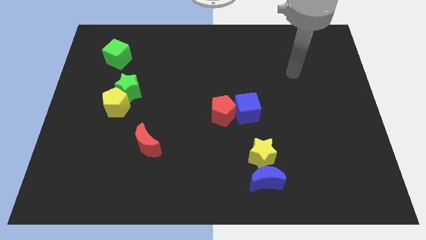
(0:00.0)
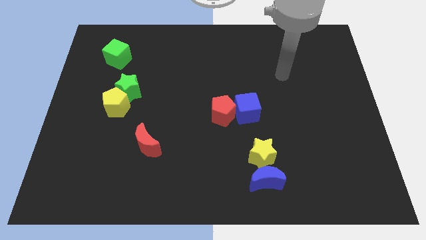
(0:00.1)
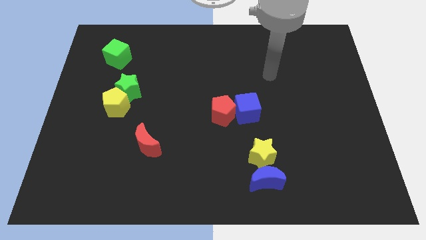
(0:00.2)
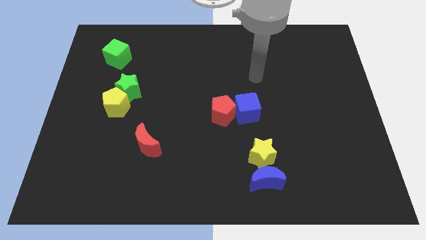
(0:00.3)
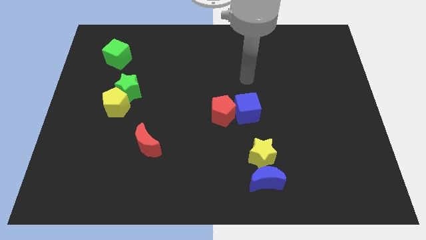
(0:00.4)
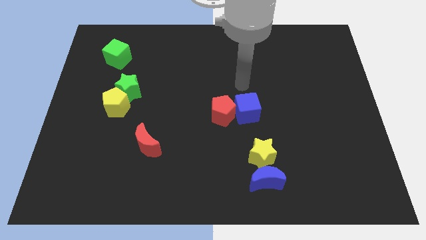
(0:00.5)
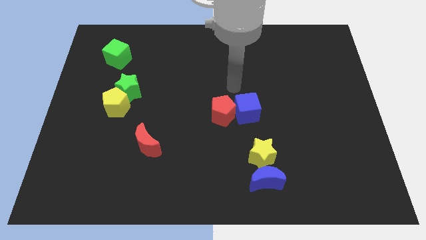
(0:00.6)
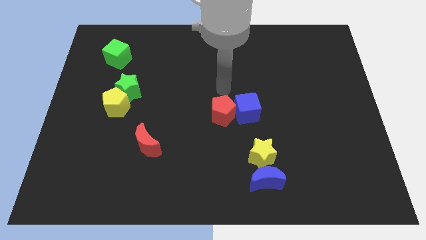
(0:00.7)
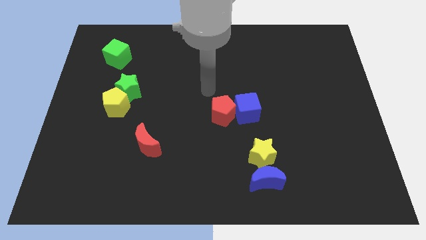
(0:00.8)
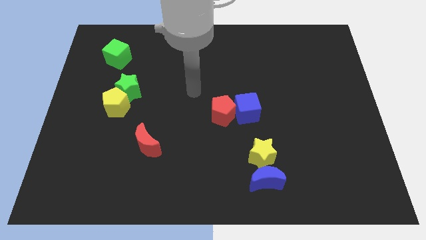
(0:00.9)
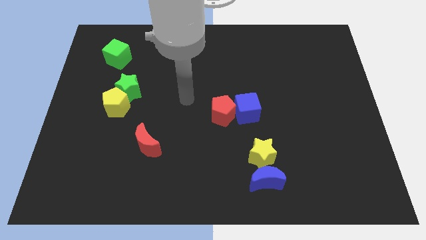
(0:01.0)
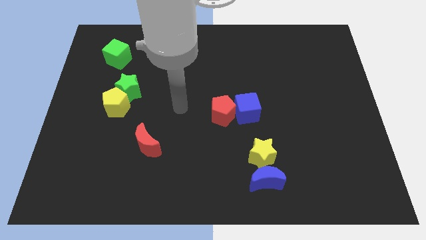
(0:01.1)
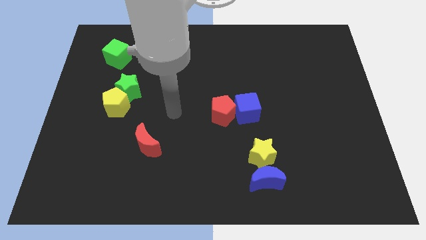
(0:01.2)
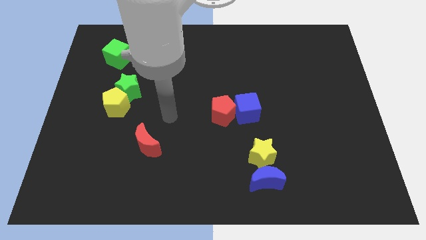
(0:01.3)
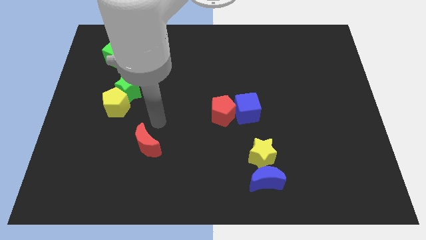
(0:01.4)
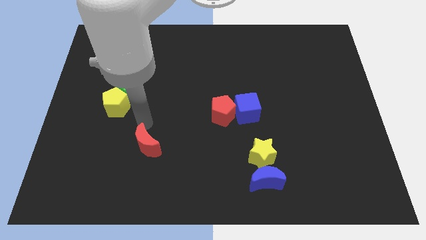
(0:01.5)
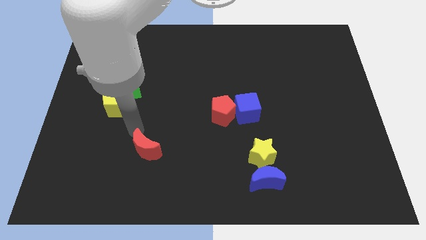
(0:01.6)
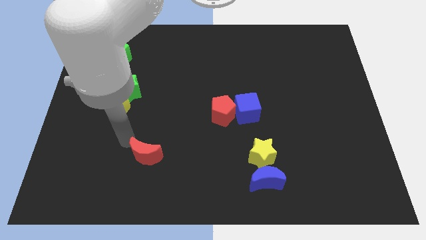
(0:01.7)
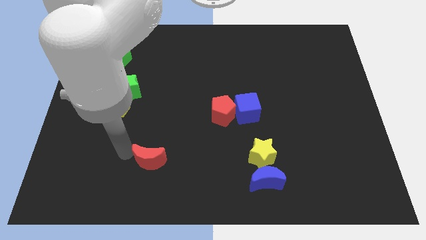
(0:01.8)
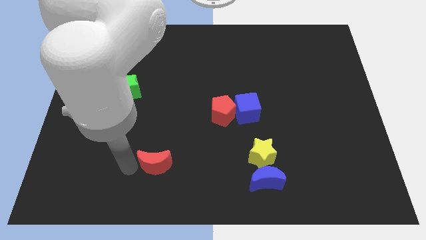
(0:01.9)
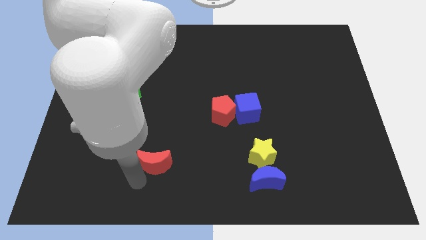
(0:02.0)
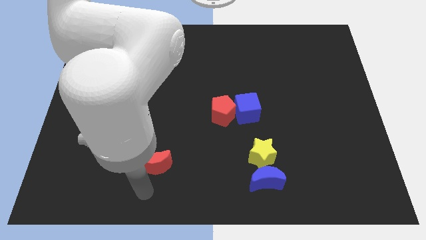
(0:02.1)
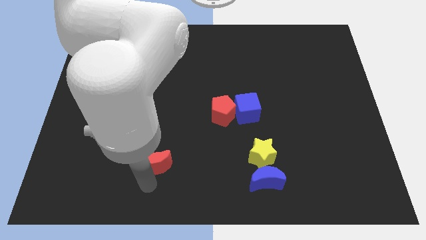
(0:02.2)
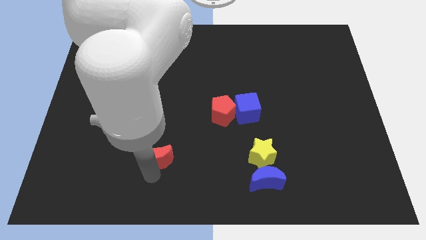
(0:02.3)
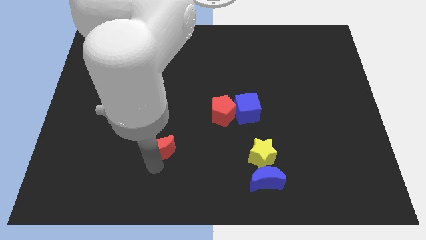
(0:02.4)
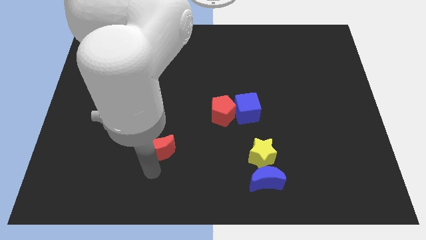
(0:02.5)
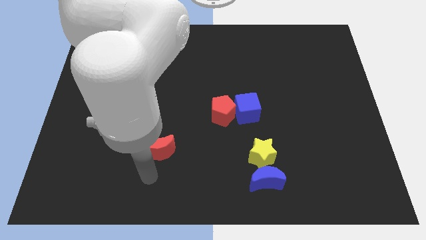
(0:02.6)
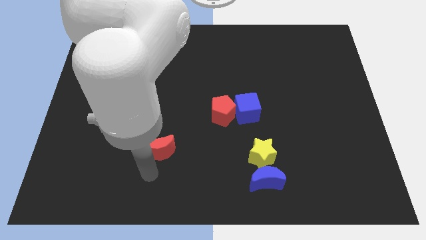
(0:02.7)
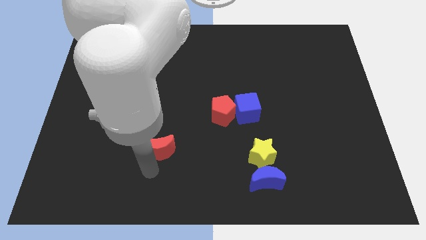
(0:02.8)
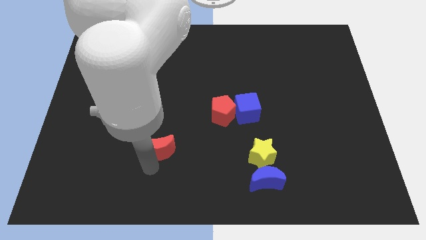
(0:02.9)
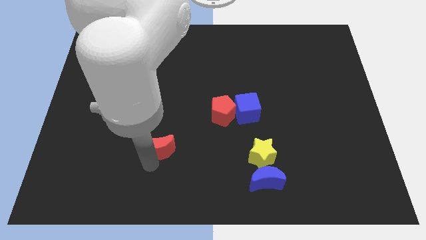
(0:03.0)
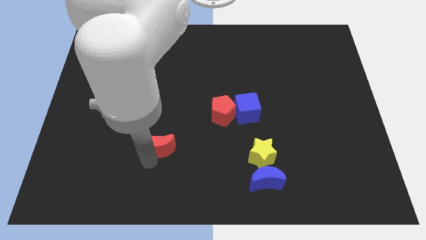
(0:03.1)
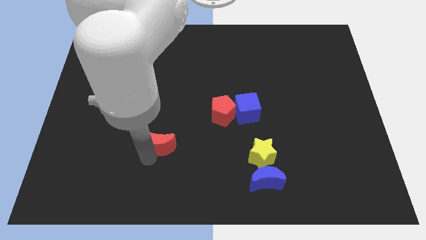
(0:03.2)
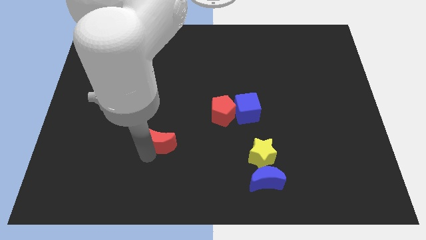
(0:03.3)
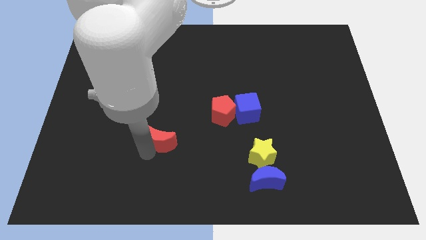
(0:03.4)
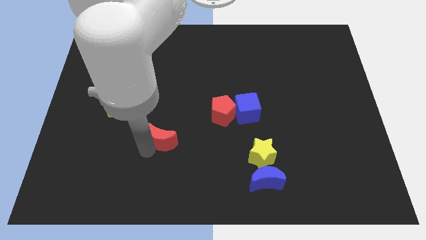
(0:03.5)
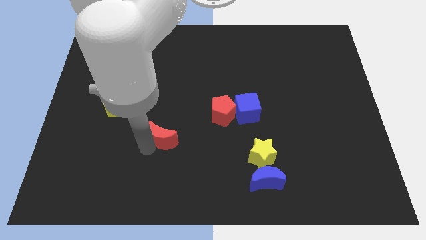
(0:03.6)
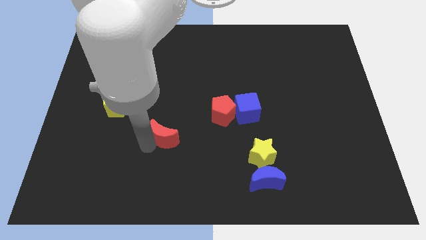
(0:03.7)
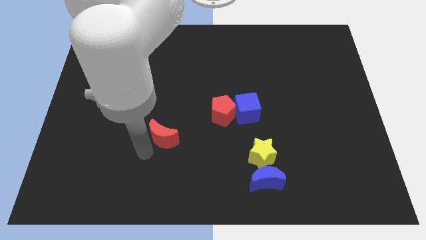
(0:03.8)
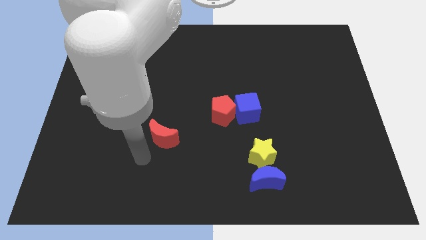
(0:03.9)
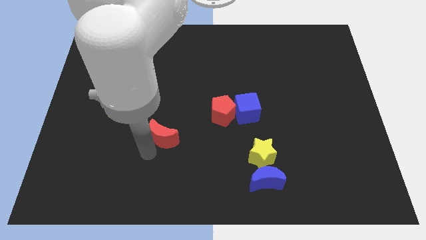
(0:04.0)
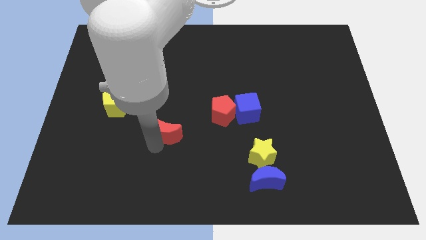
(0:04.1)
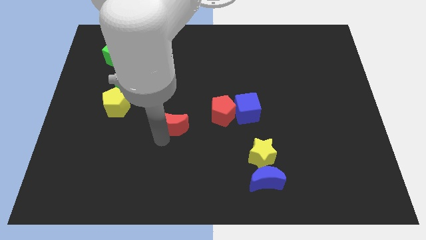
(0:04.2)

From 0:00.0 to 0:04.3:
slightly move the red moon diagonally up and to the right

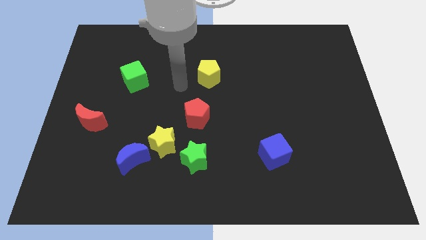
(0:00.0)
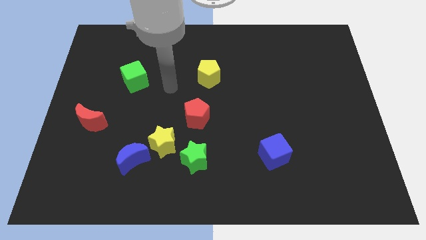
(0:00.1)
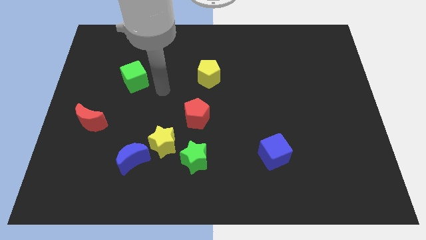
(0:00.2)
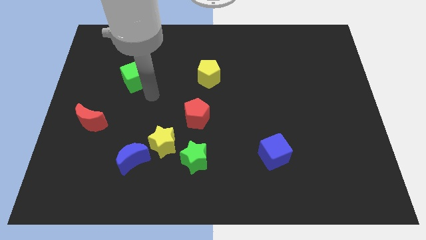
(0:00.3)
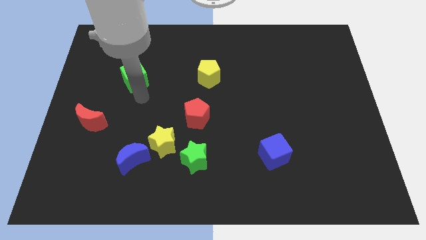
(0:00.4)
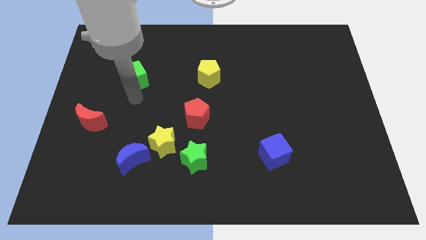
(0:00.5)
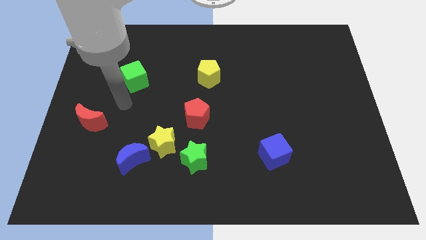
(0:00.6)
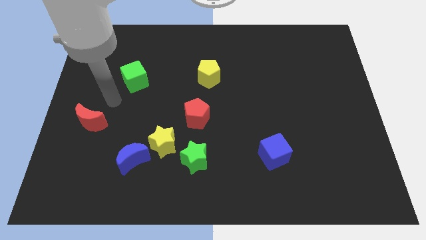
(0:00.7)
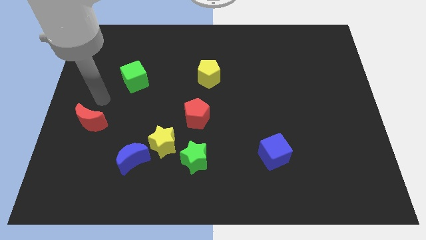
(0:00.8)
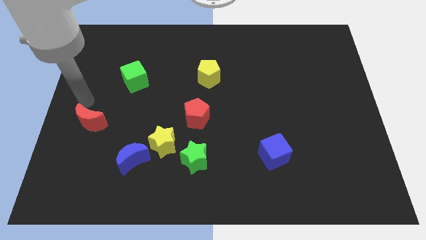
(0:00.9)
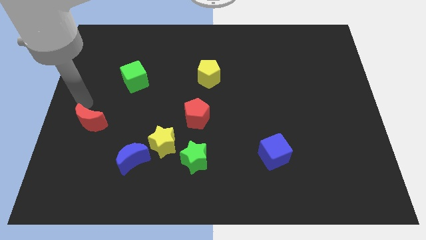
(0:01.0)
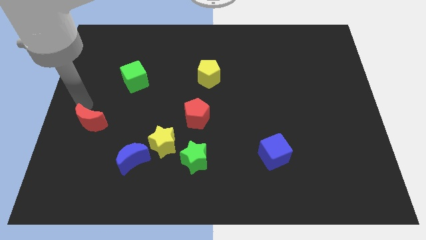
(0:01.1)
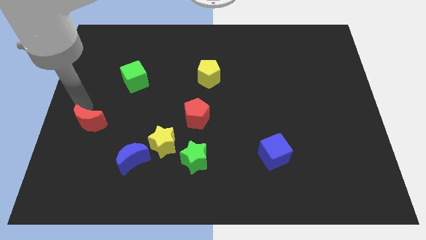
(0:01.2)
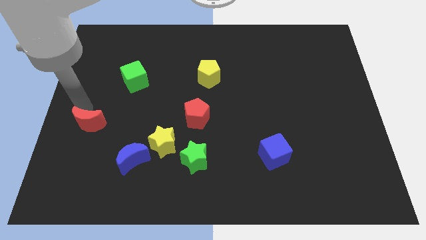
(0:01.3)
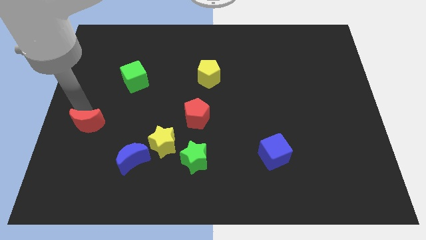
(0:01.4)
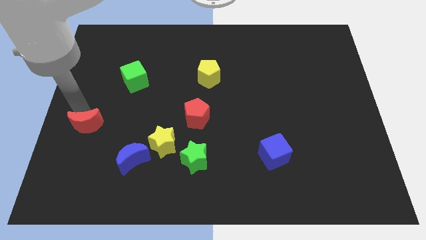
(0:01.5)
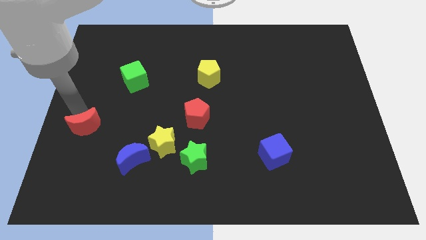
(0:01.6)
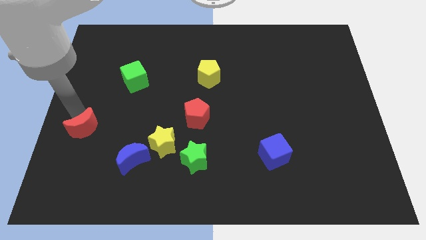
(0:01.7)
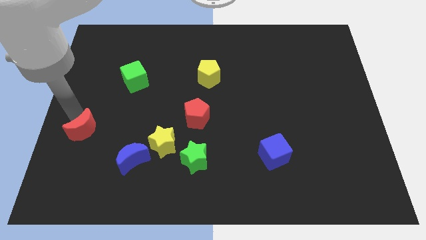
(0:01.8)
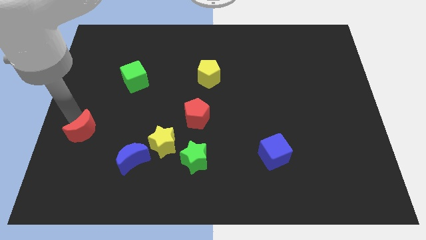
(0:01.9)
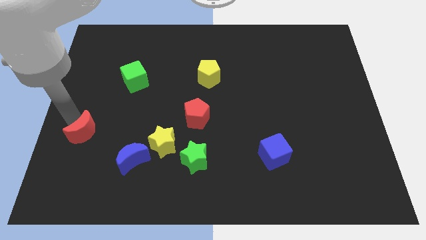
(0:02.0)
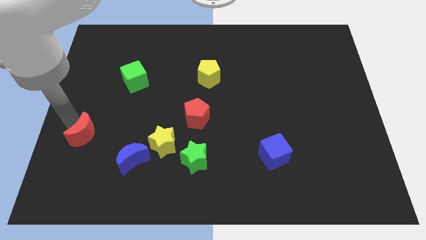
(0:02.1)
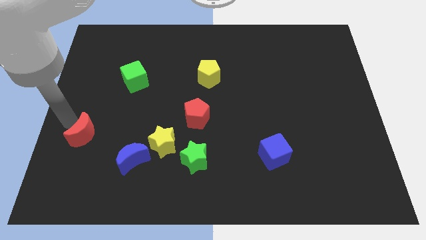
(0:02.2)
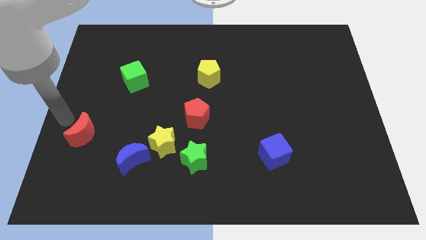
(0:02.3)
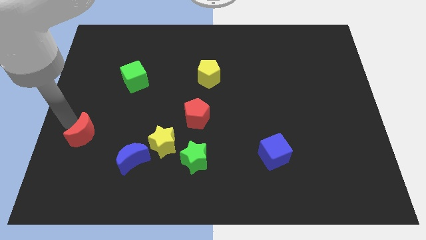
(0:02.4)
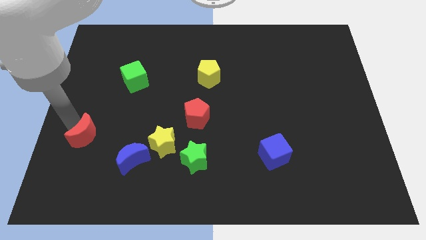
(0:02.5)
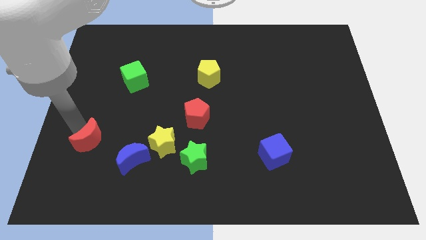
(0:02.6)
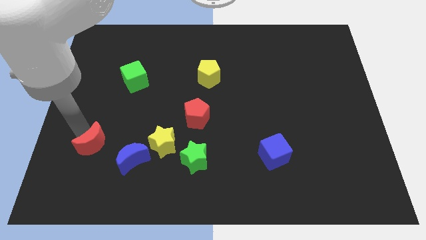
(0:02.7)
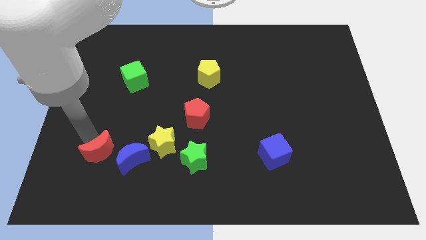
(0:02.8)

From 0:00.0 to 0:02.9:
slightly slide the red moon downwards and right

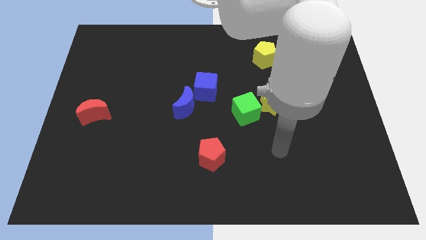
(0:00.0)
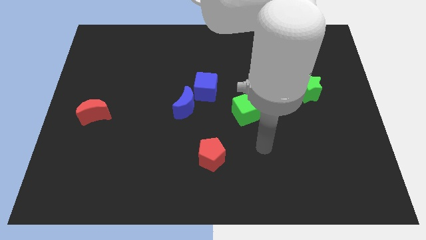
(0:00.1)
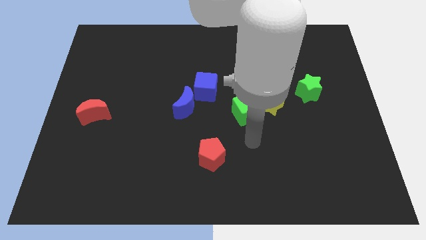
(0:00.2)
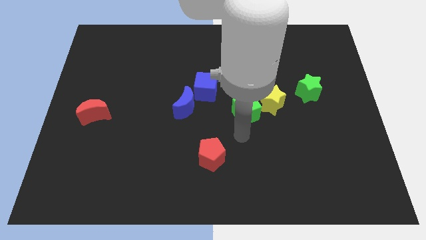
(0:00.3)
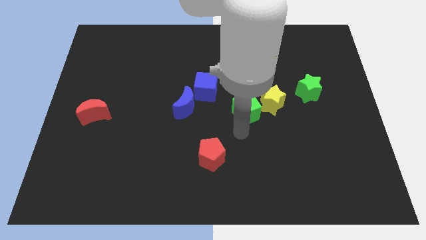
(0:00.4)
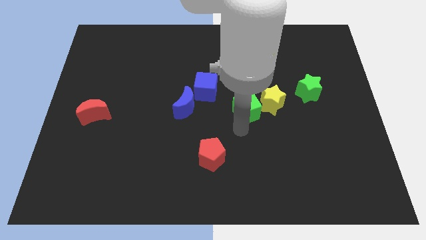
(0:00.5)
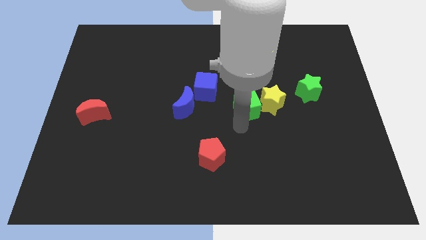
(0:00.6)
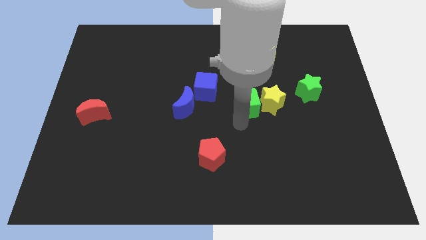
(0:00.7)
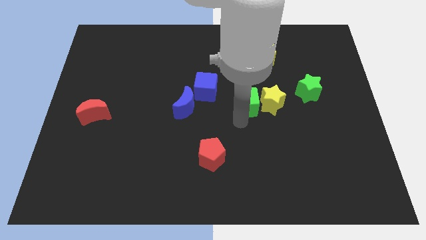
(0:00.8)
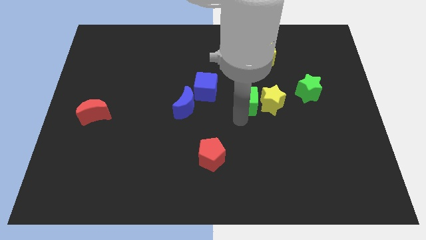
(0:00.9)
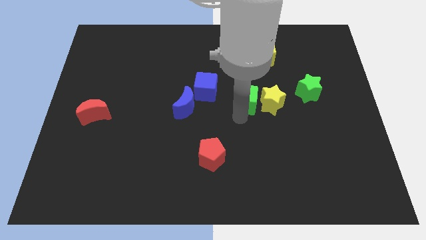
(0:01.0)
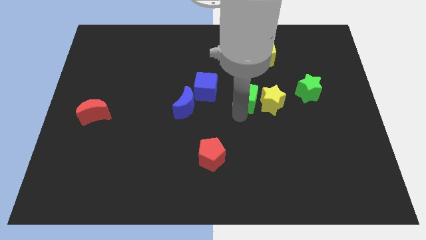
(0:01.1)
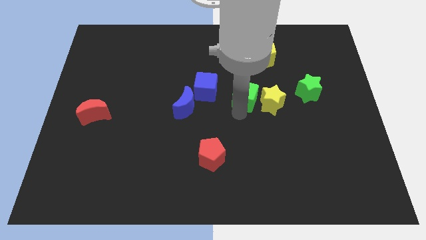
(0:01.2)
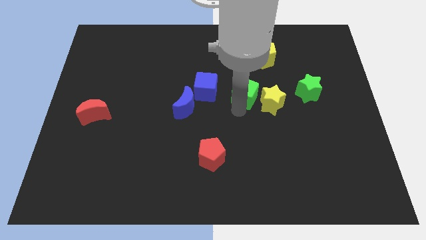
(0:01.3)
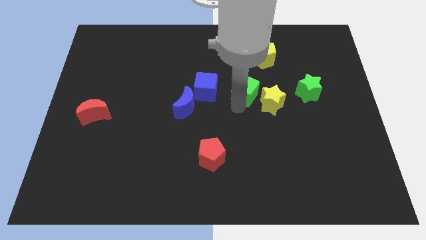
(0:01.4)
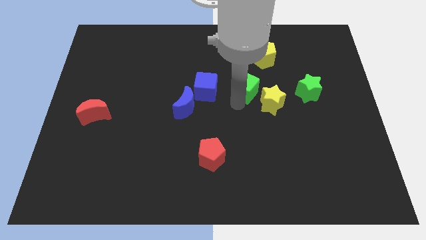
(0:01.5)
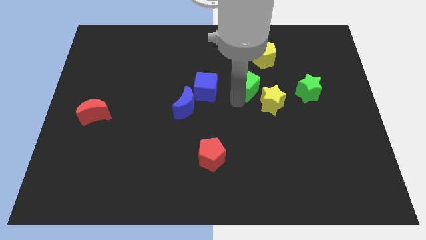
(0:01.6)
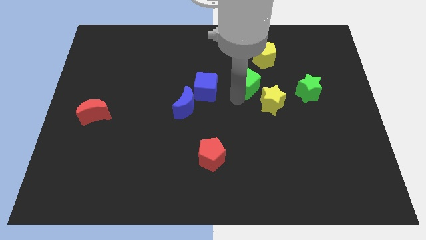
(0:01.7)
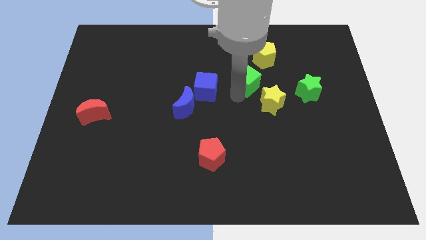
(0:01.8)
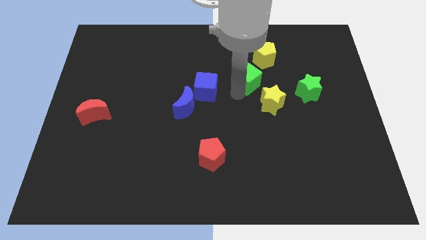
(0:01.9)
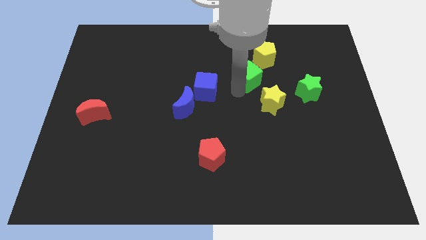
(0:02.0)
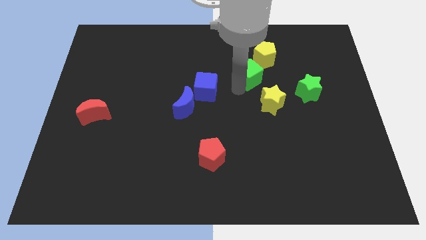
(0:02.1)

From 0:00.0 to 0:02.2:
slightly push the green cube upwards and to the right
